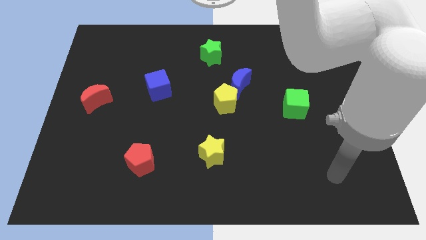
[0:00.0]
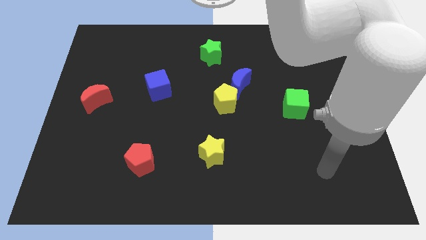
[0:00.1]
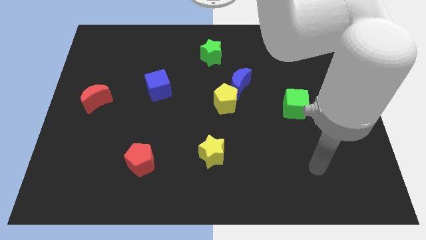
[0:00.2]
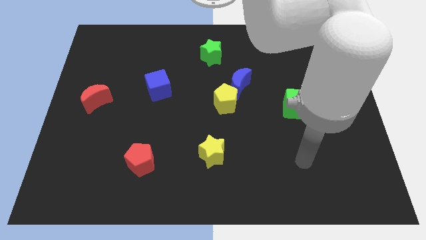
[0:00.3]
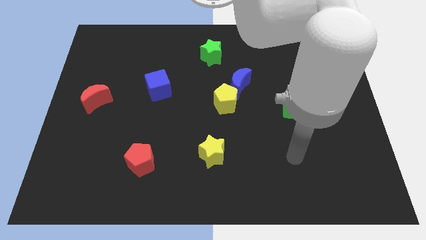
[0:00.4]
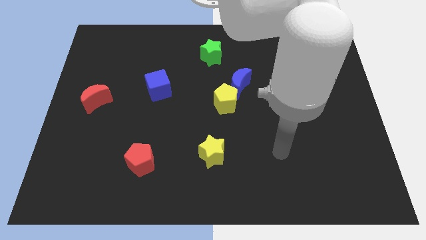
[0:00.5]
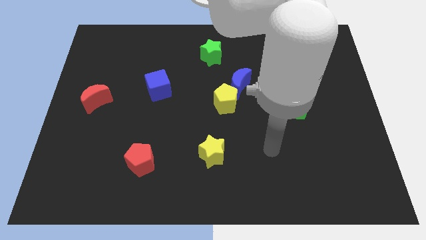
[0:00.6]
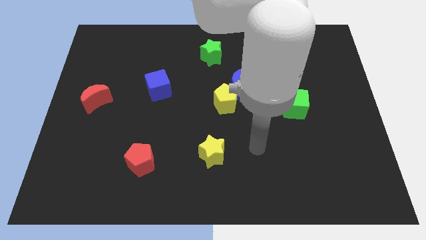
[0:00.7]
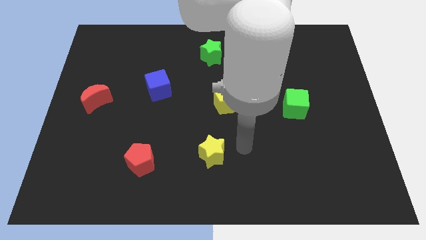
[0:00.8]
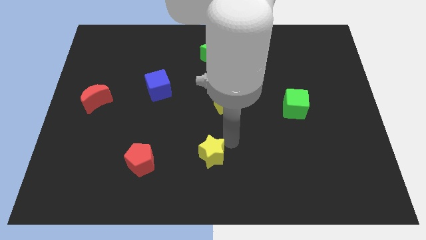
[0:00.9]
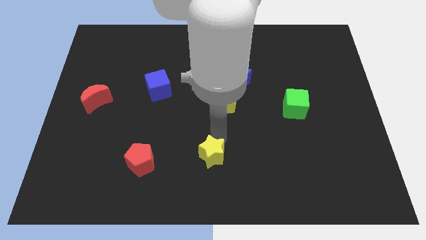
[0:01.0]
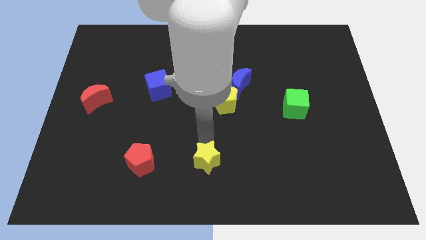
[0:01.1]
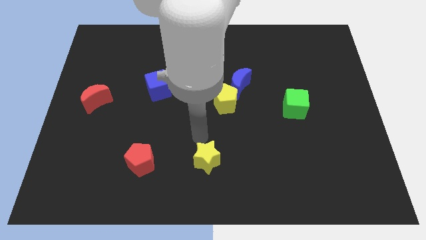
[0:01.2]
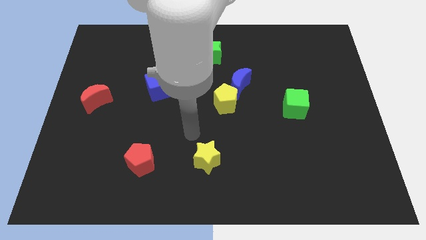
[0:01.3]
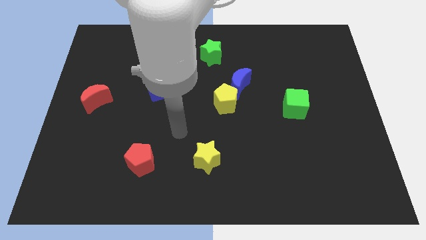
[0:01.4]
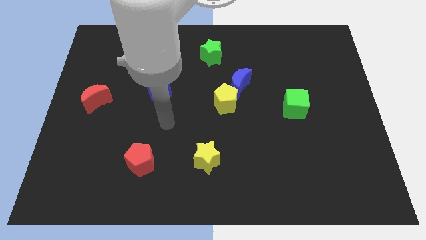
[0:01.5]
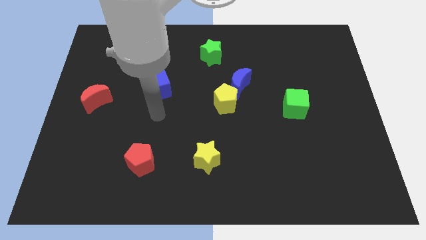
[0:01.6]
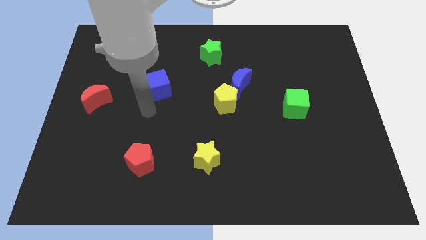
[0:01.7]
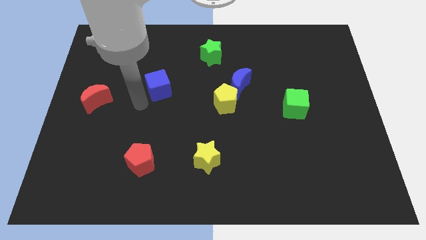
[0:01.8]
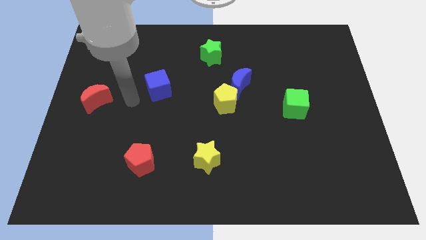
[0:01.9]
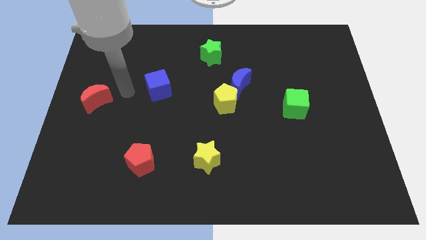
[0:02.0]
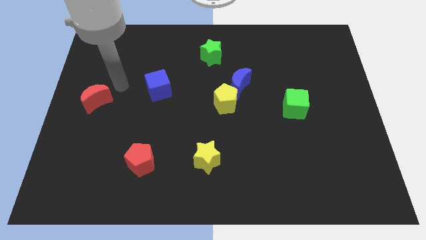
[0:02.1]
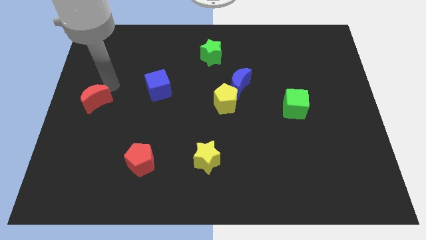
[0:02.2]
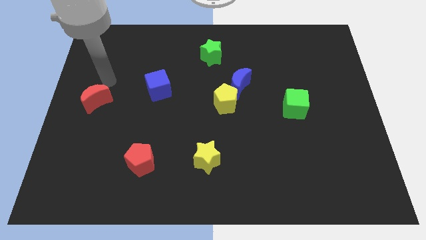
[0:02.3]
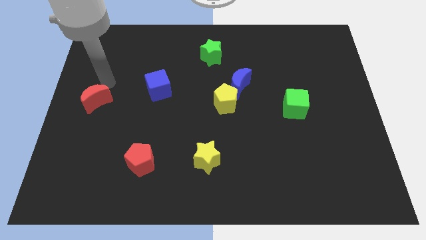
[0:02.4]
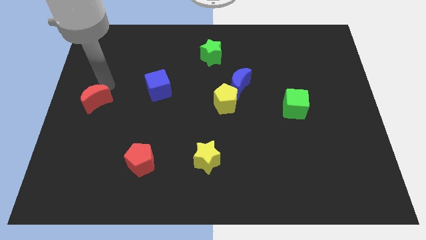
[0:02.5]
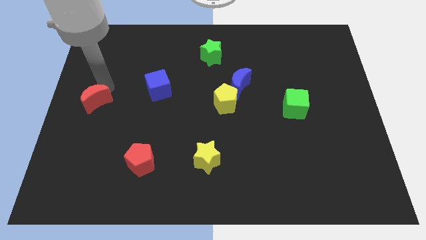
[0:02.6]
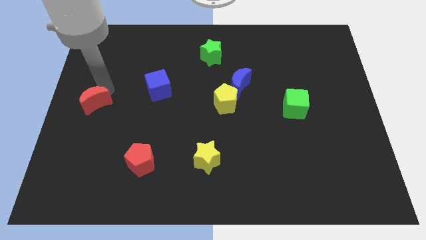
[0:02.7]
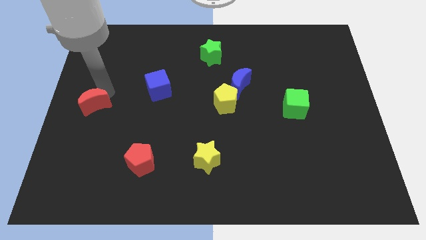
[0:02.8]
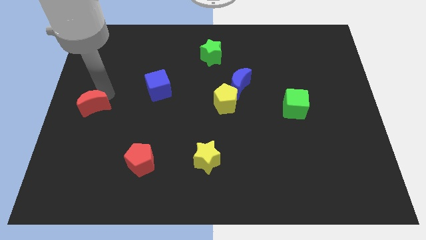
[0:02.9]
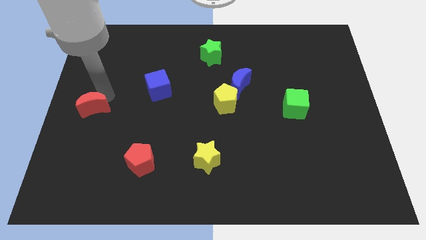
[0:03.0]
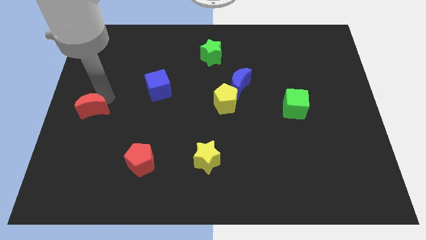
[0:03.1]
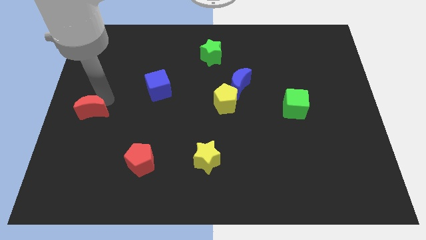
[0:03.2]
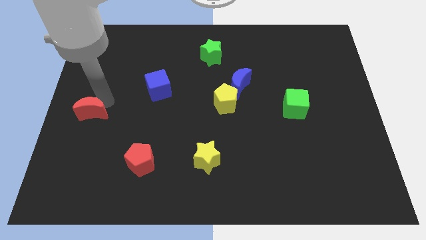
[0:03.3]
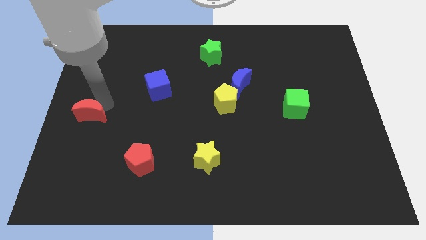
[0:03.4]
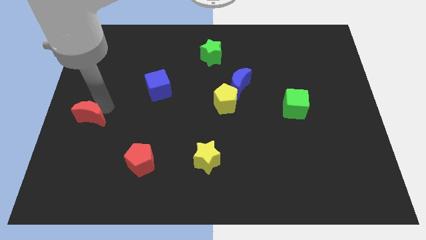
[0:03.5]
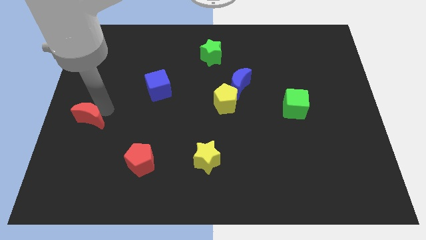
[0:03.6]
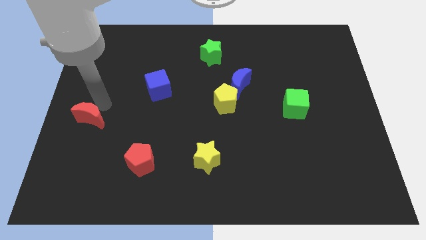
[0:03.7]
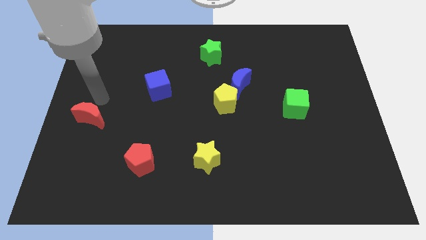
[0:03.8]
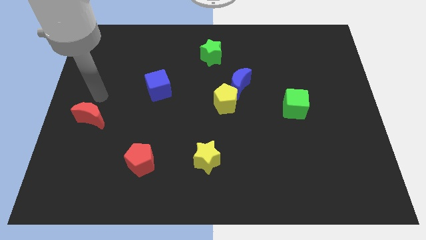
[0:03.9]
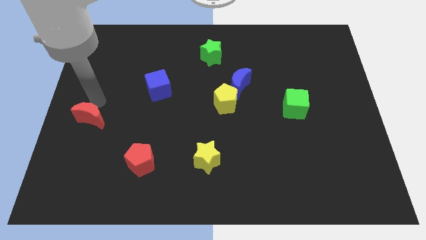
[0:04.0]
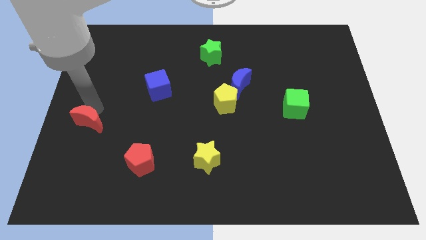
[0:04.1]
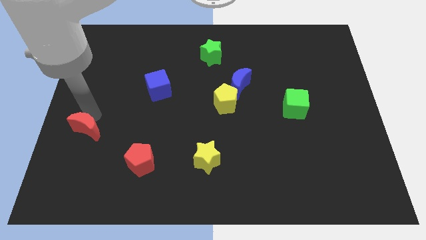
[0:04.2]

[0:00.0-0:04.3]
move the red moon slightly downwards

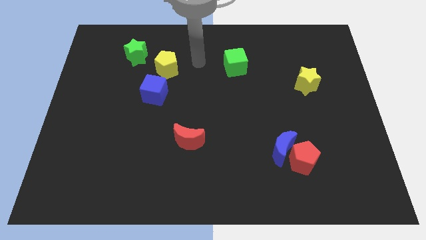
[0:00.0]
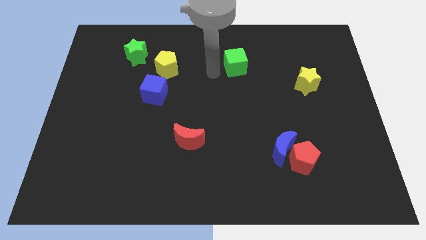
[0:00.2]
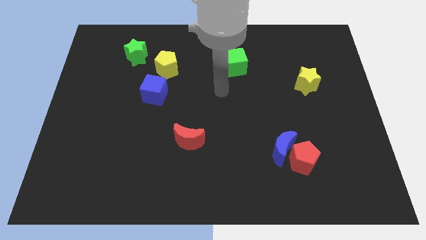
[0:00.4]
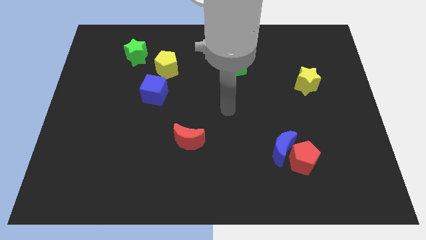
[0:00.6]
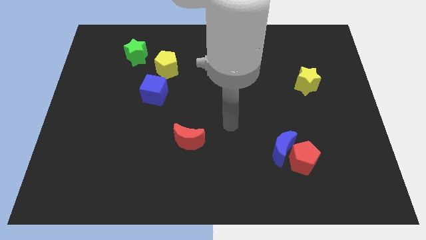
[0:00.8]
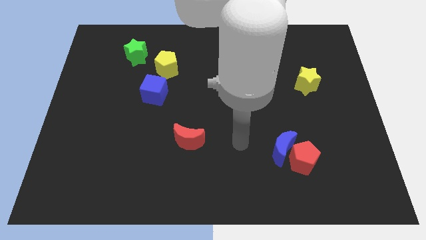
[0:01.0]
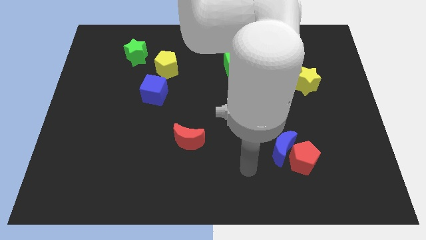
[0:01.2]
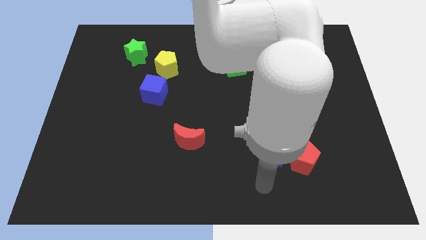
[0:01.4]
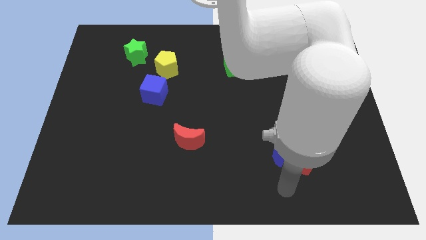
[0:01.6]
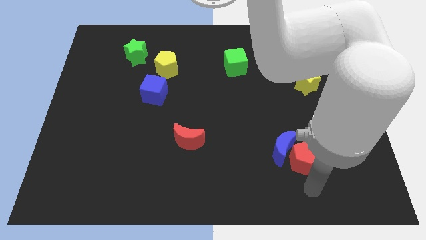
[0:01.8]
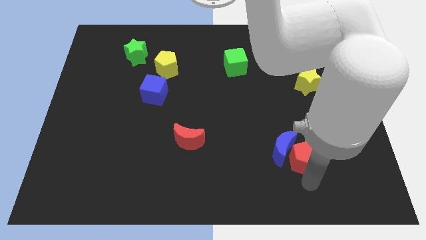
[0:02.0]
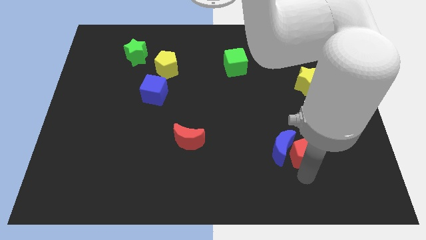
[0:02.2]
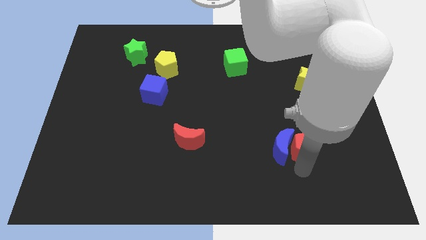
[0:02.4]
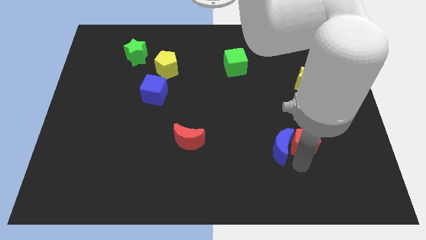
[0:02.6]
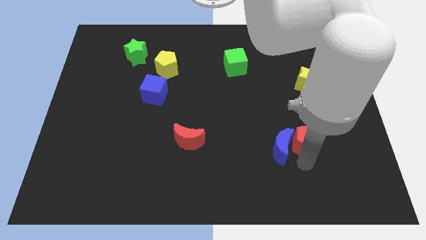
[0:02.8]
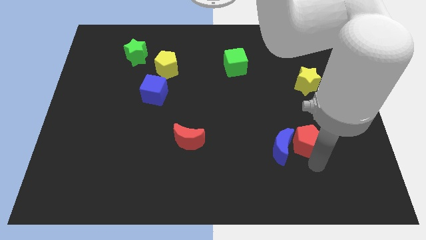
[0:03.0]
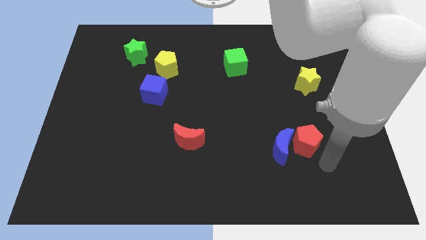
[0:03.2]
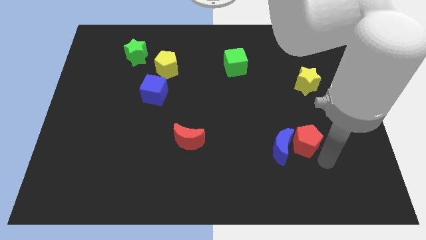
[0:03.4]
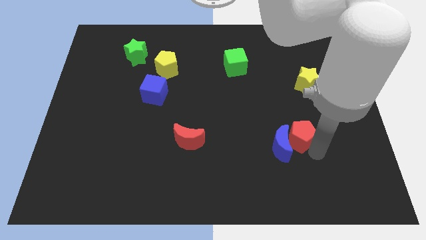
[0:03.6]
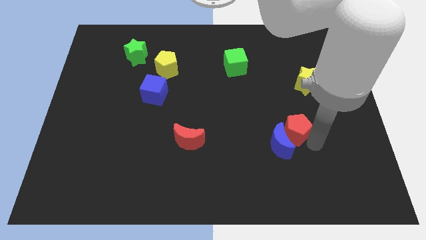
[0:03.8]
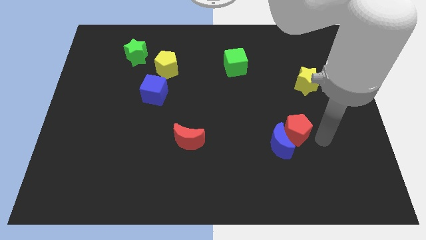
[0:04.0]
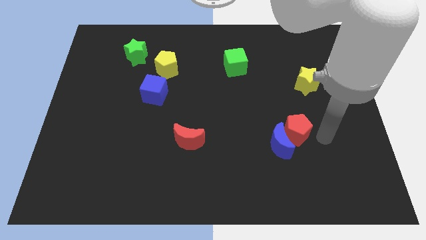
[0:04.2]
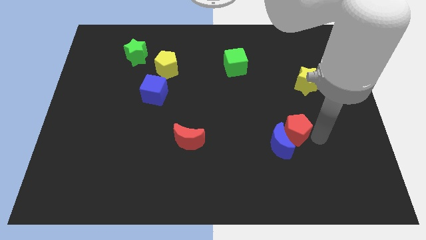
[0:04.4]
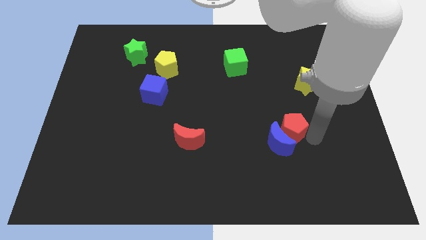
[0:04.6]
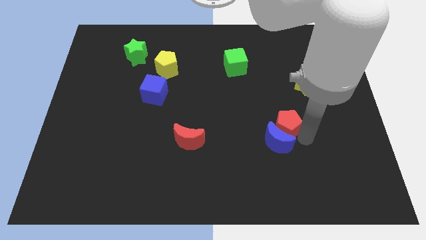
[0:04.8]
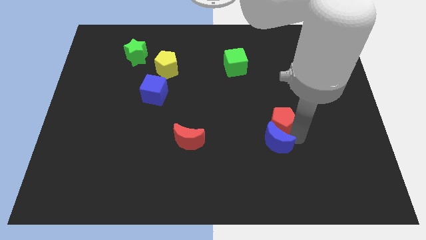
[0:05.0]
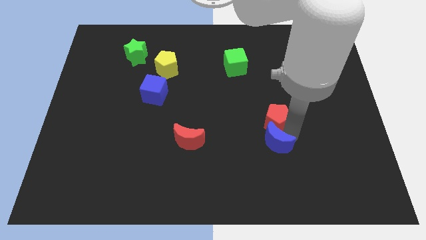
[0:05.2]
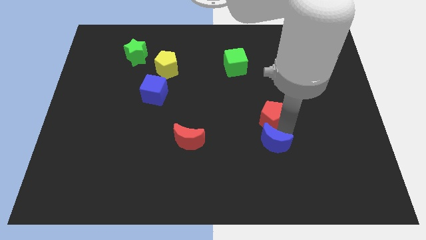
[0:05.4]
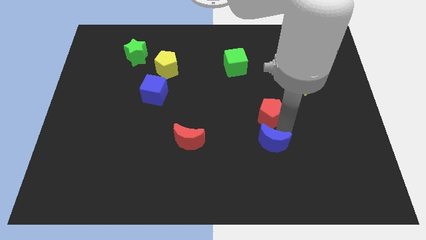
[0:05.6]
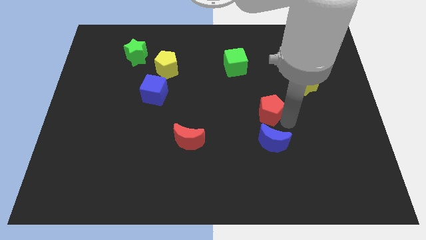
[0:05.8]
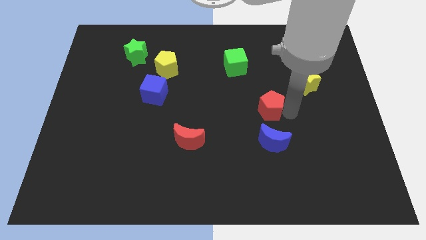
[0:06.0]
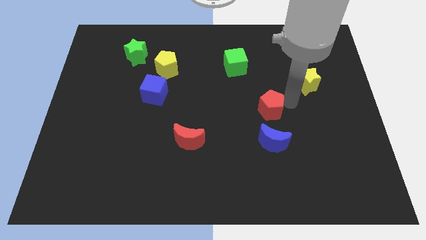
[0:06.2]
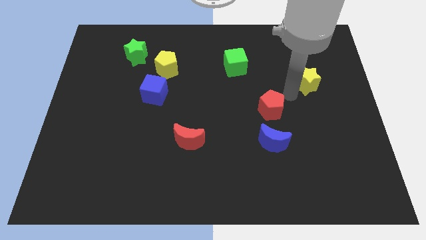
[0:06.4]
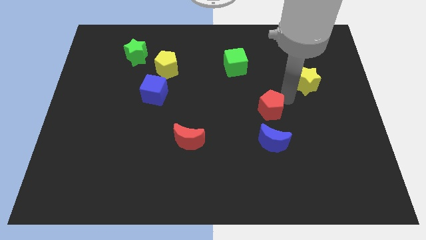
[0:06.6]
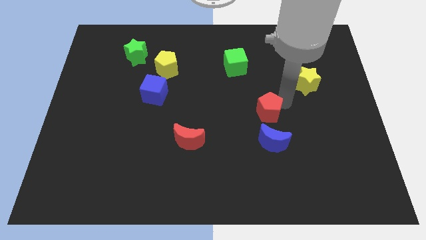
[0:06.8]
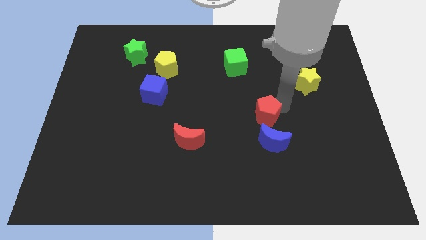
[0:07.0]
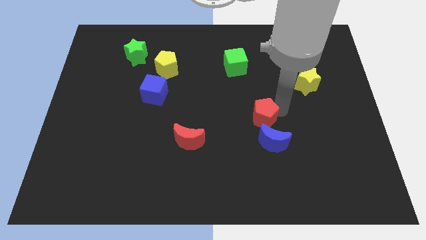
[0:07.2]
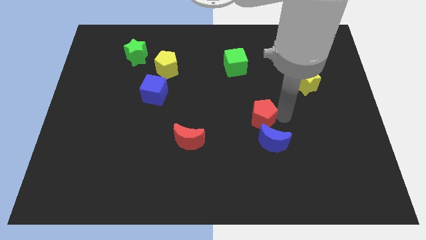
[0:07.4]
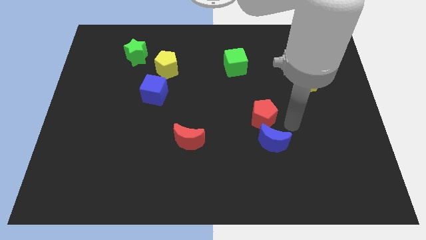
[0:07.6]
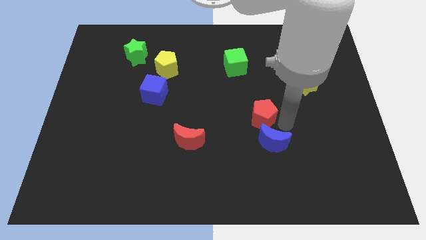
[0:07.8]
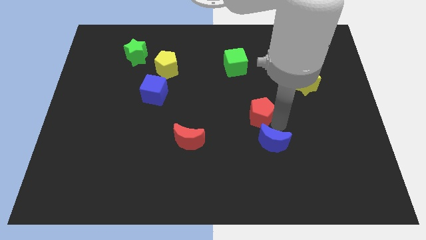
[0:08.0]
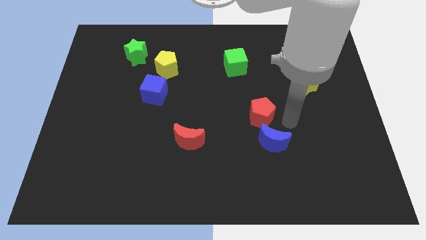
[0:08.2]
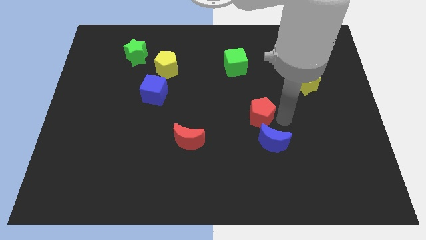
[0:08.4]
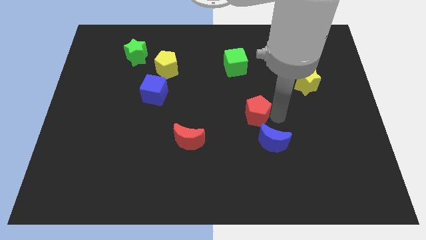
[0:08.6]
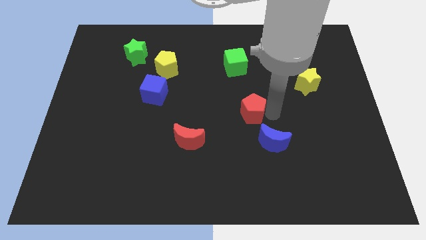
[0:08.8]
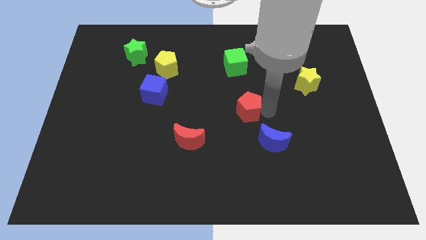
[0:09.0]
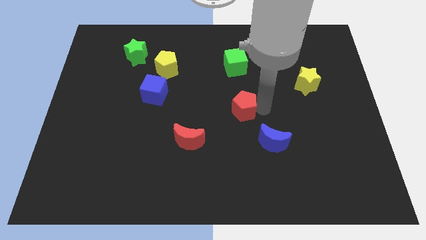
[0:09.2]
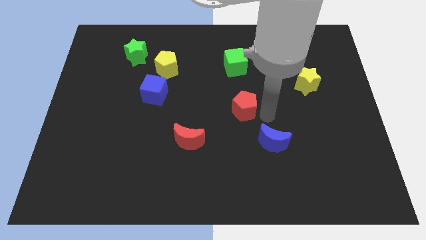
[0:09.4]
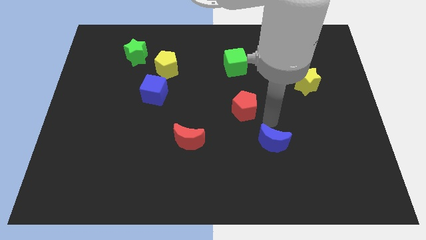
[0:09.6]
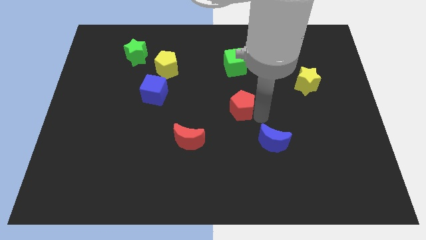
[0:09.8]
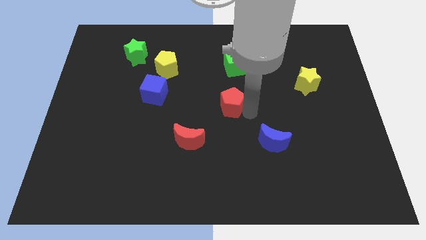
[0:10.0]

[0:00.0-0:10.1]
push the red pentagon upwards and to the left diagonally
